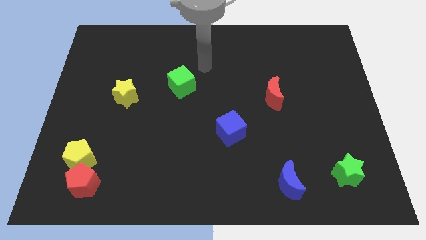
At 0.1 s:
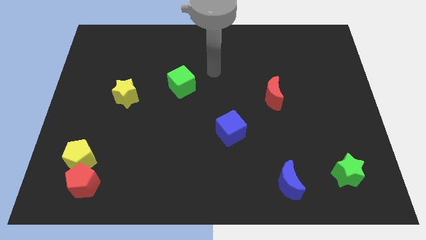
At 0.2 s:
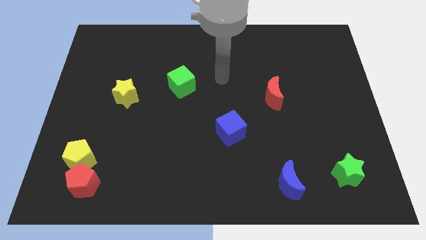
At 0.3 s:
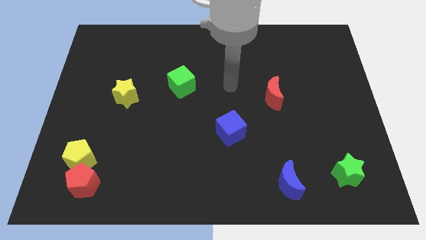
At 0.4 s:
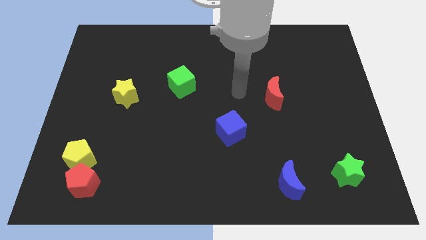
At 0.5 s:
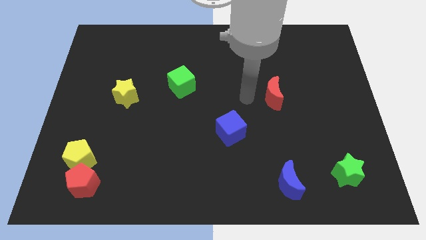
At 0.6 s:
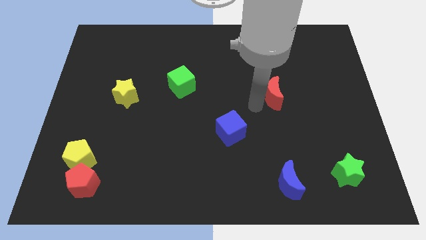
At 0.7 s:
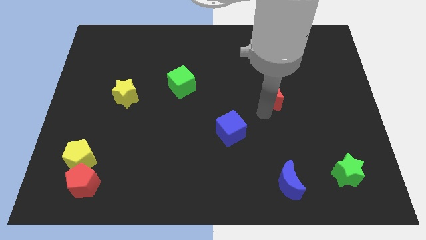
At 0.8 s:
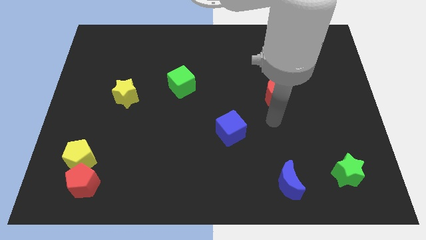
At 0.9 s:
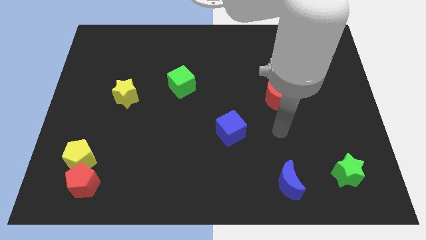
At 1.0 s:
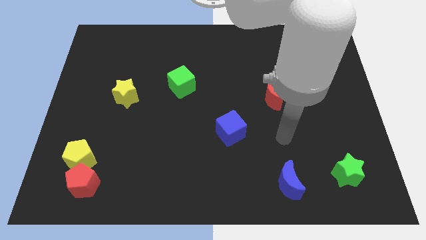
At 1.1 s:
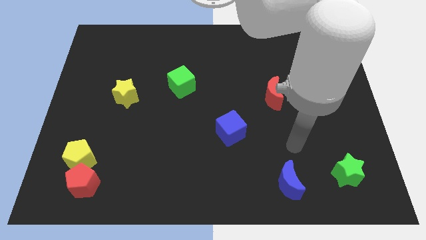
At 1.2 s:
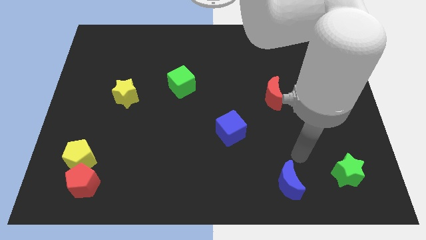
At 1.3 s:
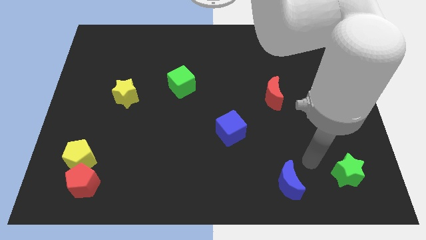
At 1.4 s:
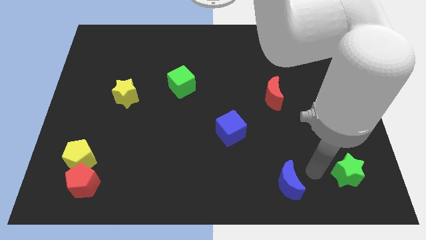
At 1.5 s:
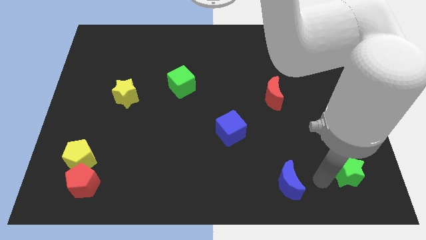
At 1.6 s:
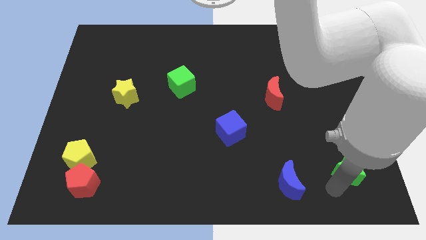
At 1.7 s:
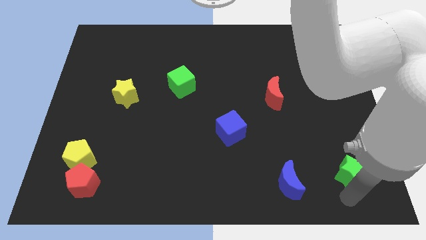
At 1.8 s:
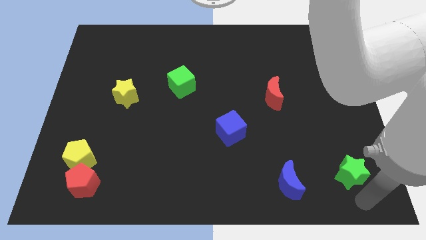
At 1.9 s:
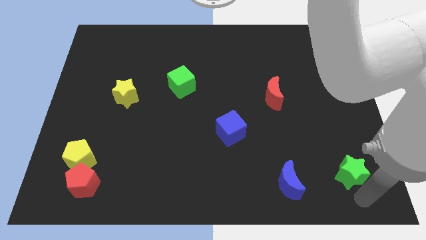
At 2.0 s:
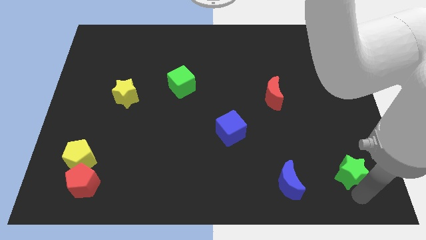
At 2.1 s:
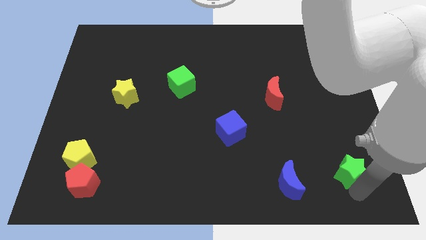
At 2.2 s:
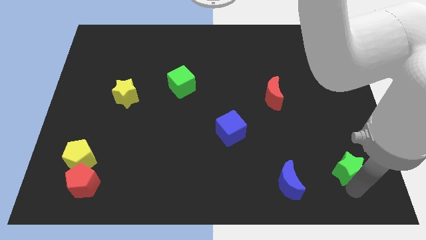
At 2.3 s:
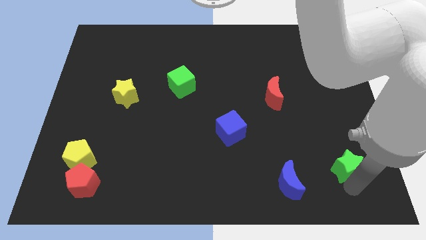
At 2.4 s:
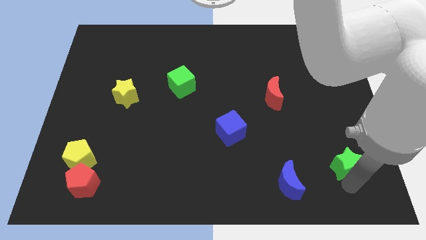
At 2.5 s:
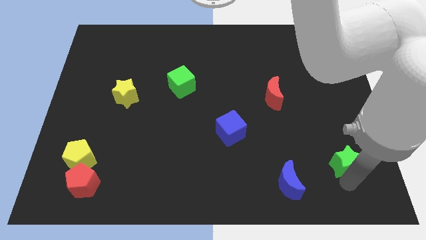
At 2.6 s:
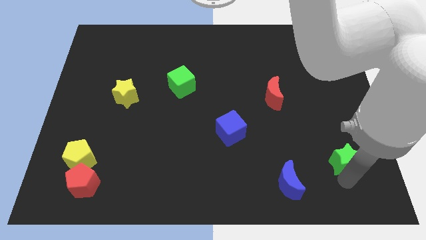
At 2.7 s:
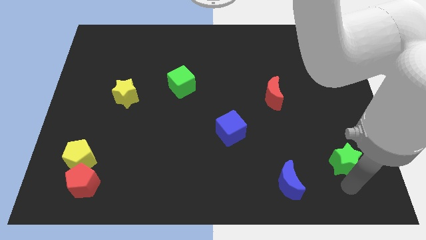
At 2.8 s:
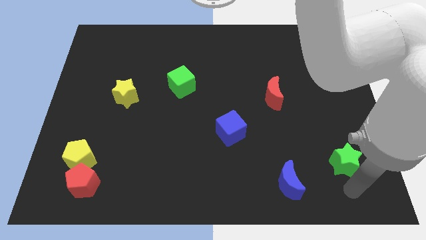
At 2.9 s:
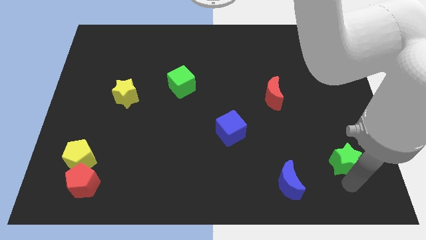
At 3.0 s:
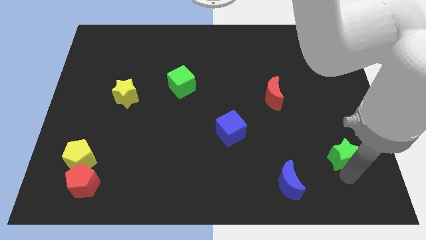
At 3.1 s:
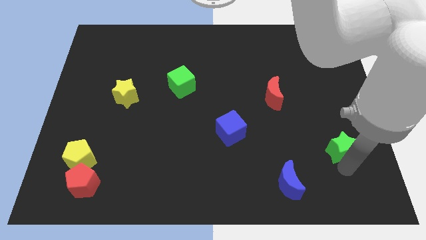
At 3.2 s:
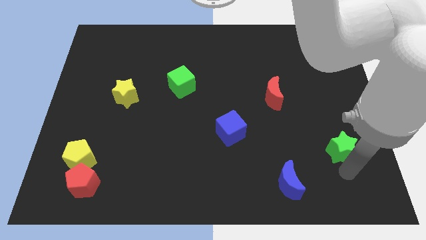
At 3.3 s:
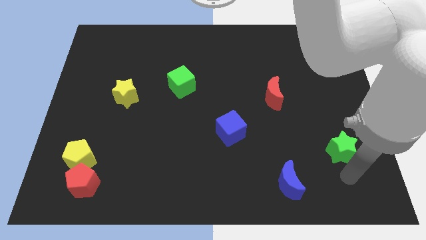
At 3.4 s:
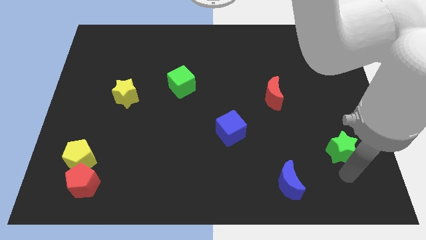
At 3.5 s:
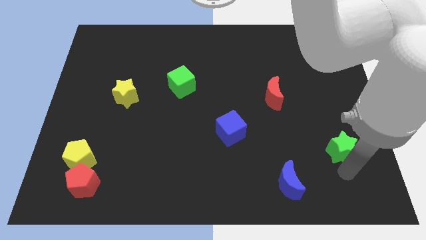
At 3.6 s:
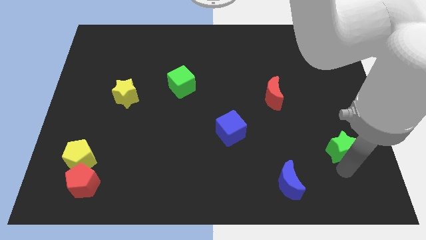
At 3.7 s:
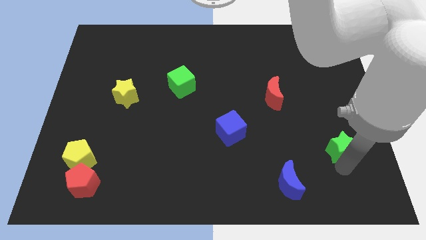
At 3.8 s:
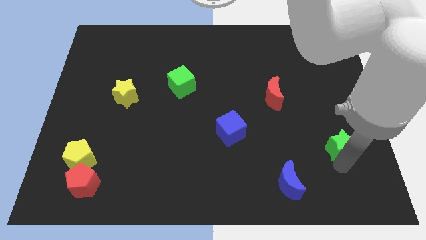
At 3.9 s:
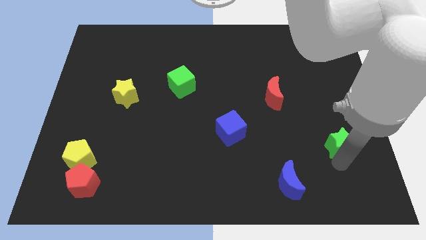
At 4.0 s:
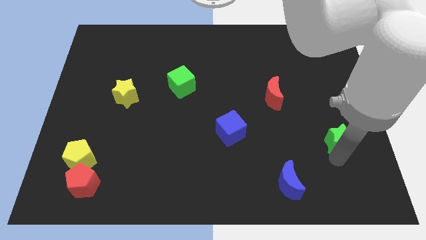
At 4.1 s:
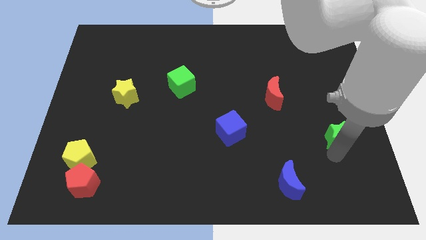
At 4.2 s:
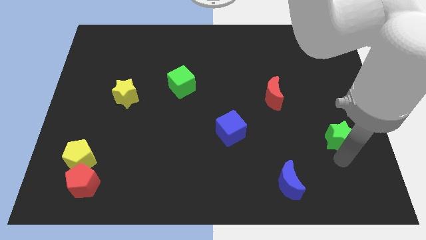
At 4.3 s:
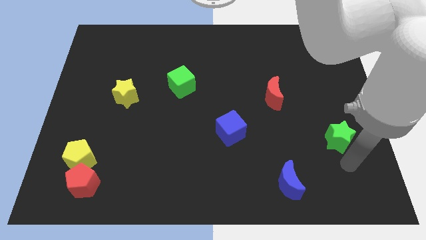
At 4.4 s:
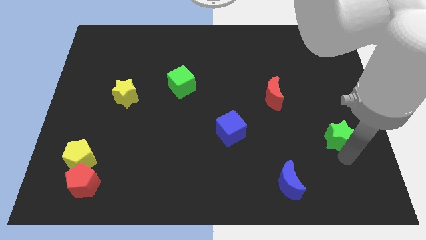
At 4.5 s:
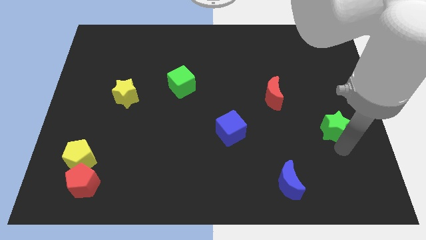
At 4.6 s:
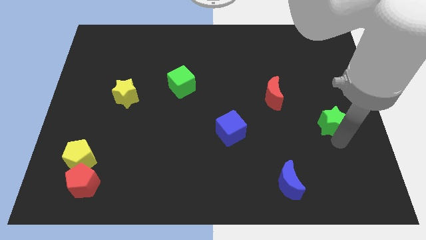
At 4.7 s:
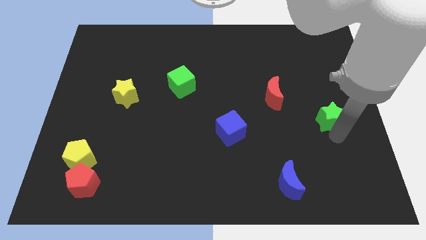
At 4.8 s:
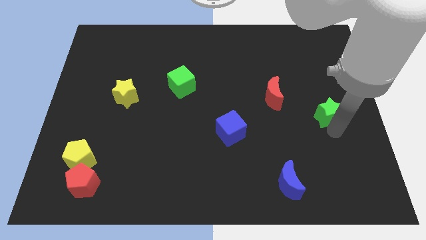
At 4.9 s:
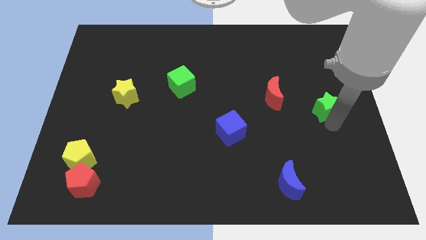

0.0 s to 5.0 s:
push the green star to the right side of the red moon

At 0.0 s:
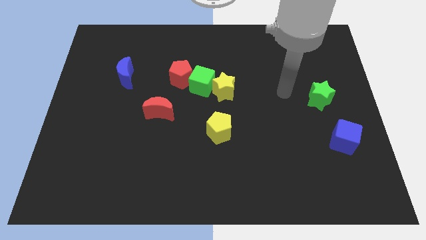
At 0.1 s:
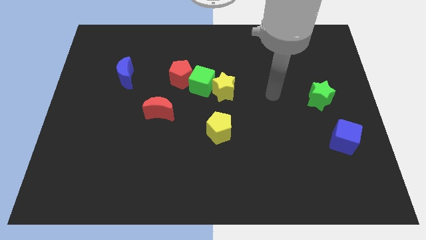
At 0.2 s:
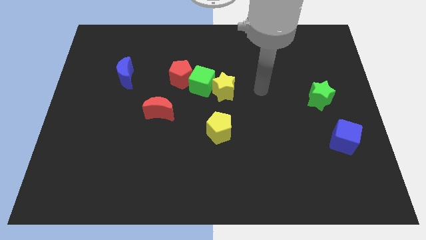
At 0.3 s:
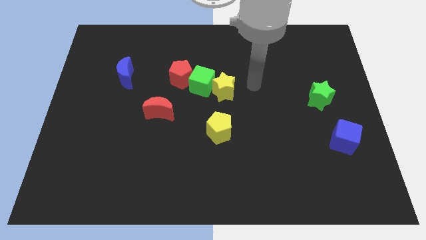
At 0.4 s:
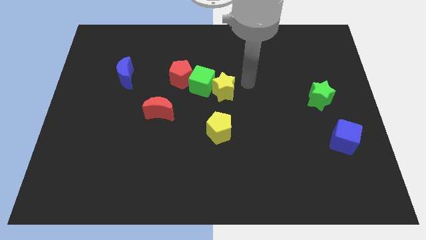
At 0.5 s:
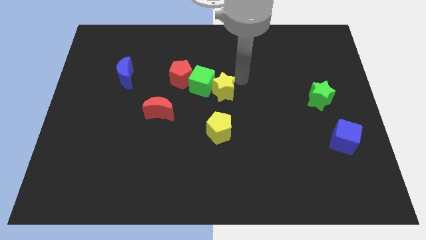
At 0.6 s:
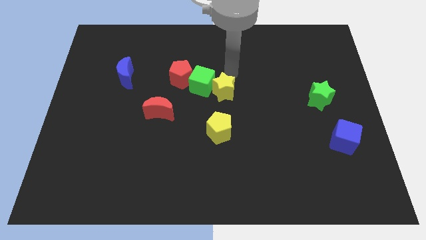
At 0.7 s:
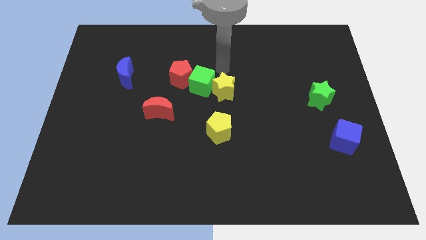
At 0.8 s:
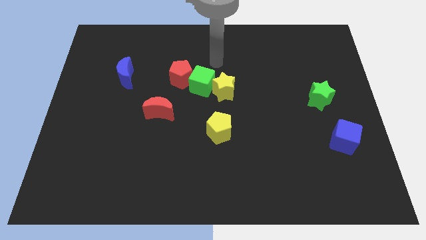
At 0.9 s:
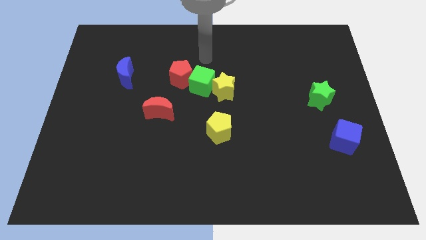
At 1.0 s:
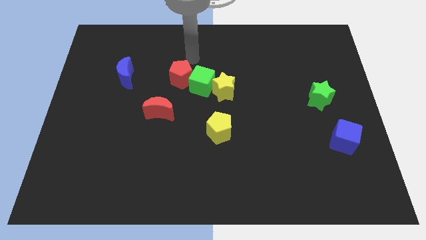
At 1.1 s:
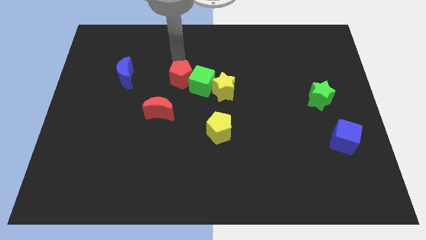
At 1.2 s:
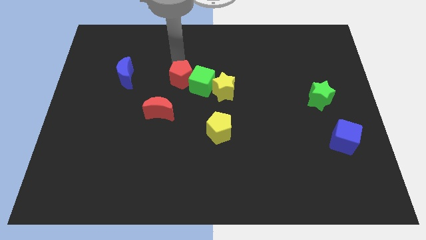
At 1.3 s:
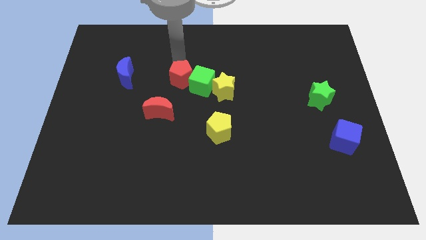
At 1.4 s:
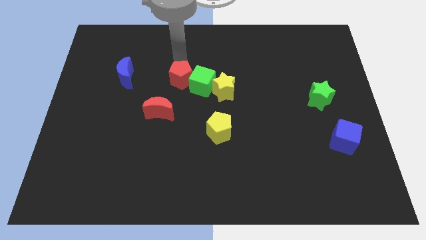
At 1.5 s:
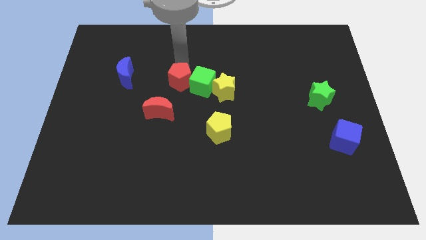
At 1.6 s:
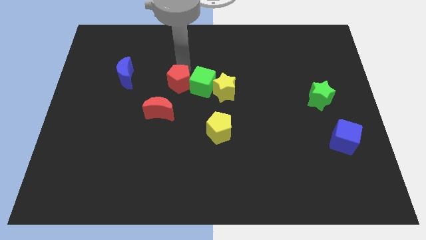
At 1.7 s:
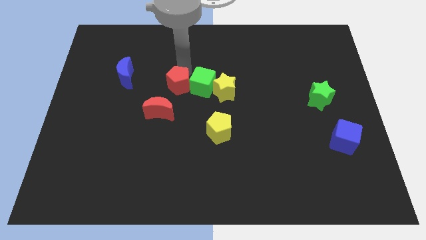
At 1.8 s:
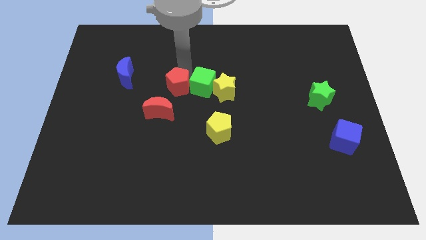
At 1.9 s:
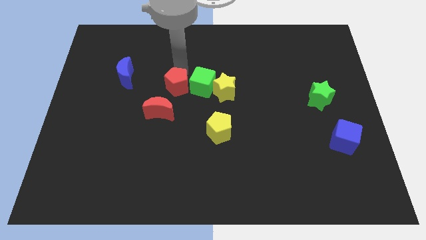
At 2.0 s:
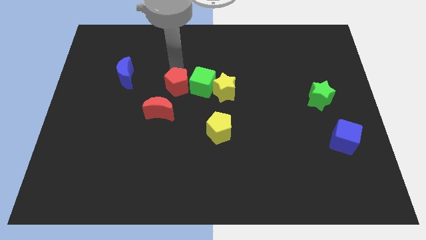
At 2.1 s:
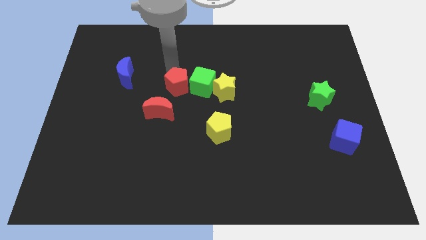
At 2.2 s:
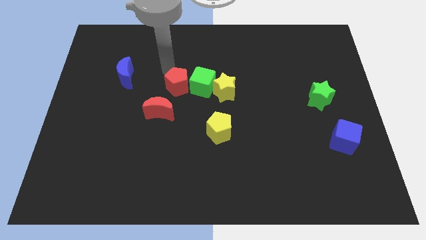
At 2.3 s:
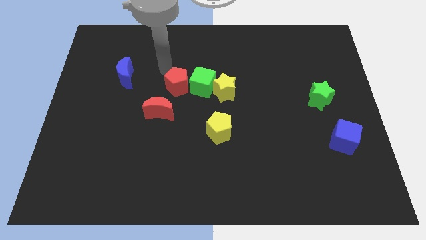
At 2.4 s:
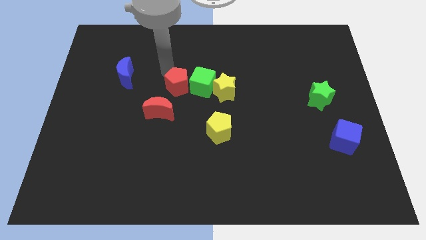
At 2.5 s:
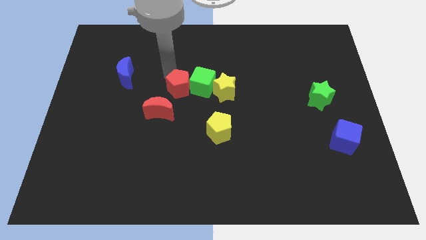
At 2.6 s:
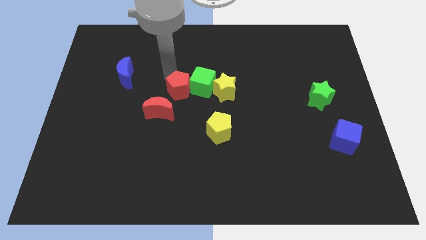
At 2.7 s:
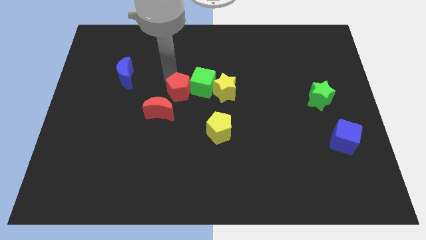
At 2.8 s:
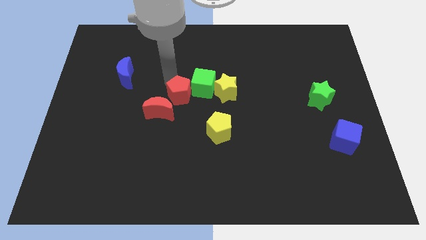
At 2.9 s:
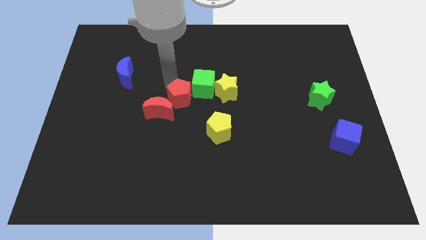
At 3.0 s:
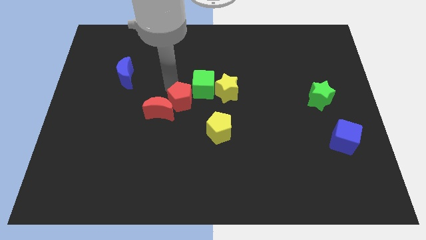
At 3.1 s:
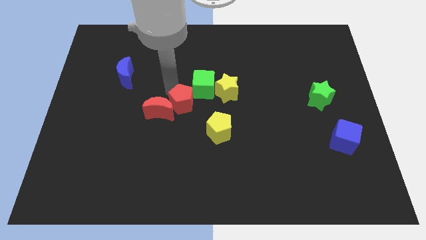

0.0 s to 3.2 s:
move the red pentagon below the green cube
